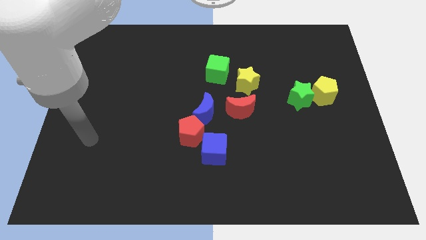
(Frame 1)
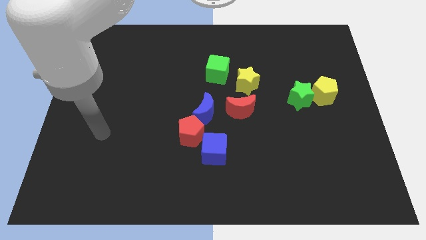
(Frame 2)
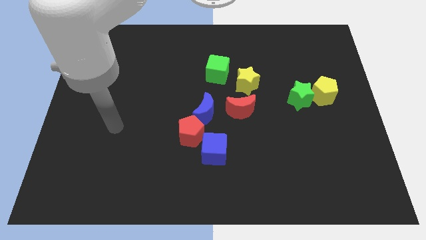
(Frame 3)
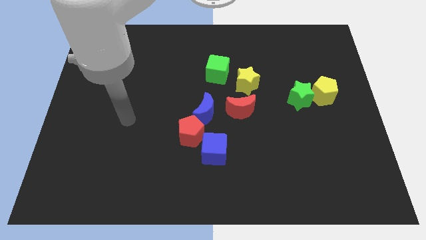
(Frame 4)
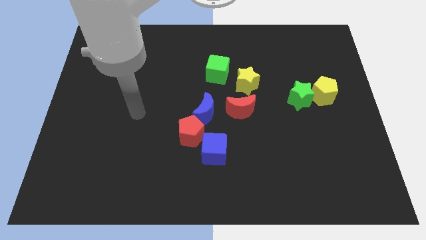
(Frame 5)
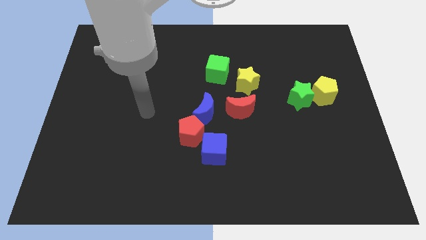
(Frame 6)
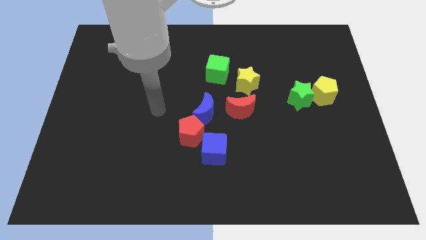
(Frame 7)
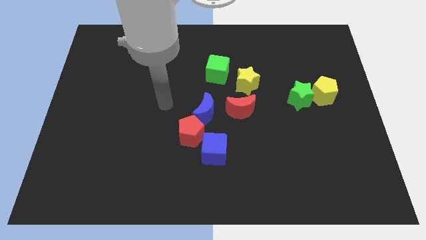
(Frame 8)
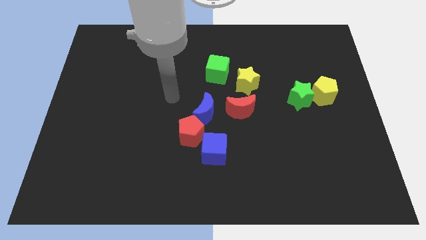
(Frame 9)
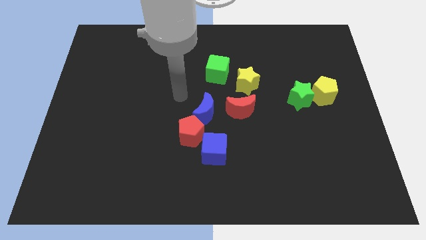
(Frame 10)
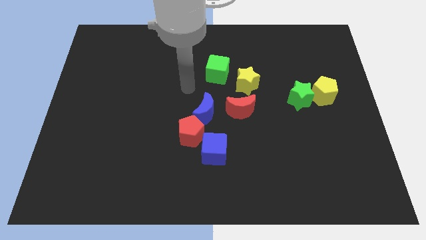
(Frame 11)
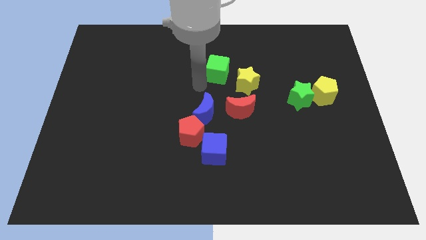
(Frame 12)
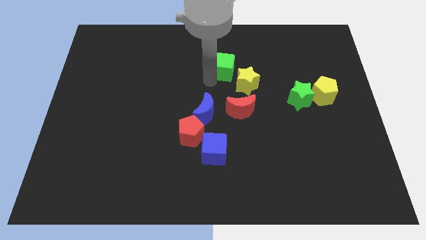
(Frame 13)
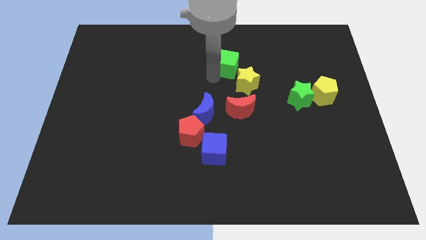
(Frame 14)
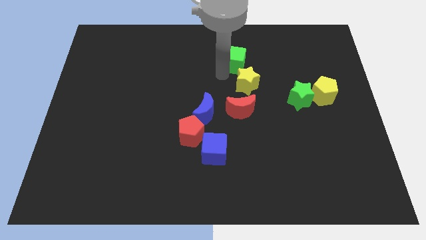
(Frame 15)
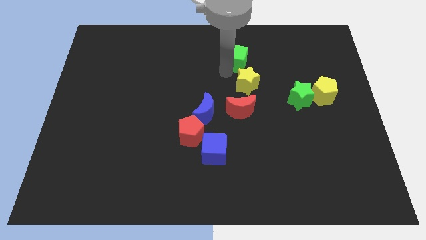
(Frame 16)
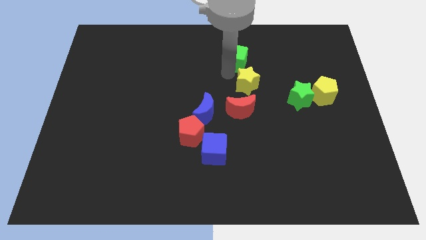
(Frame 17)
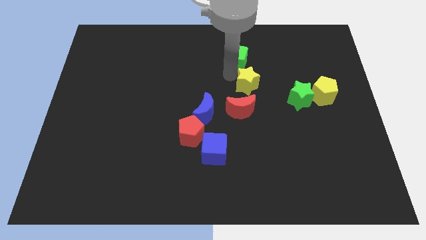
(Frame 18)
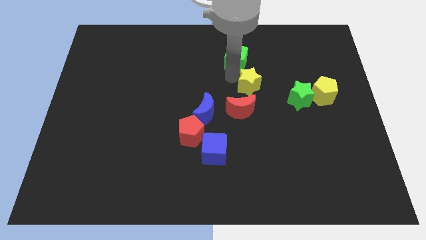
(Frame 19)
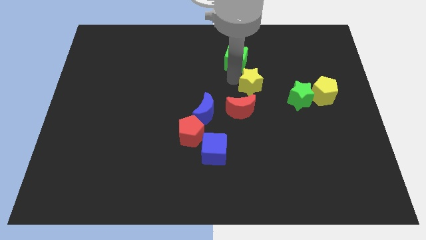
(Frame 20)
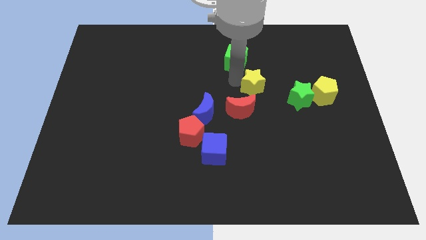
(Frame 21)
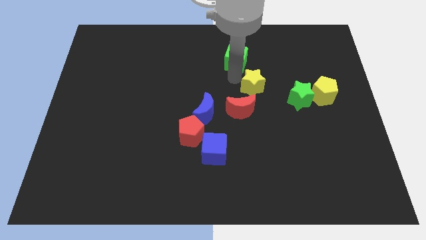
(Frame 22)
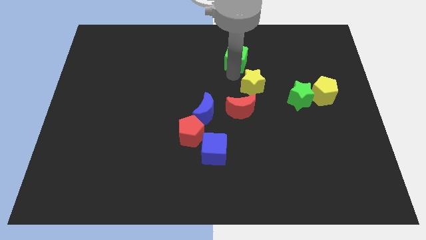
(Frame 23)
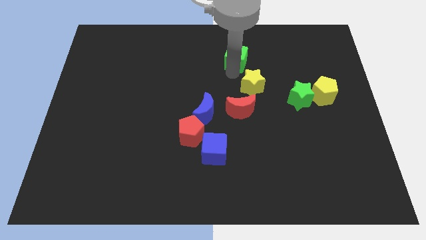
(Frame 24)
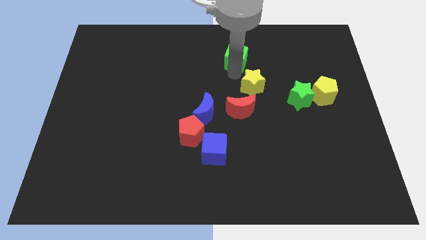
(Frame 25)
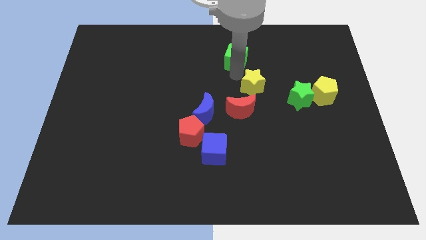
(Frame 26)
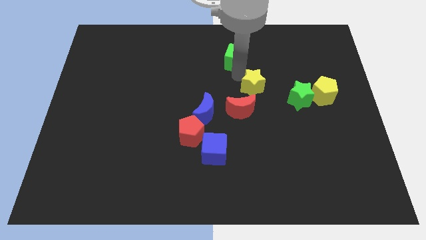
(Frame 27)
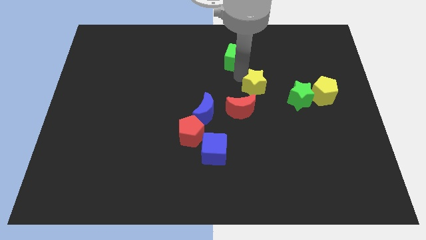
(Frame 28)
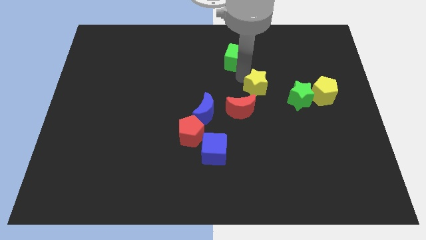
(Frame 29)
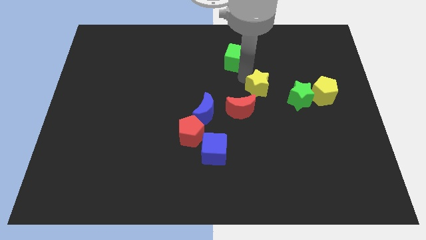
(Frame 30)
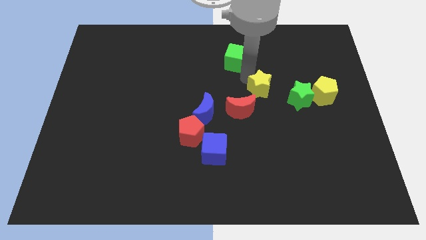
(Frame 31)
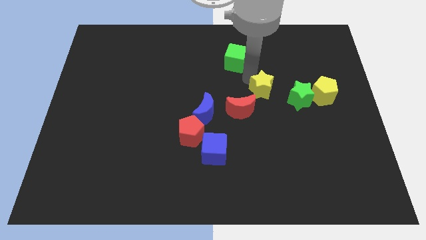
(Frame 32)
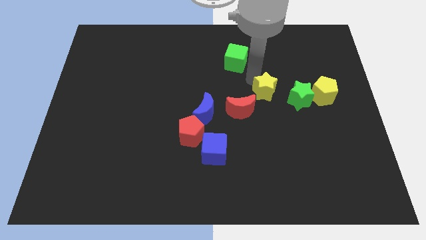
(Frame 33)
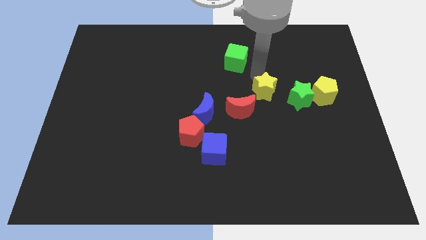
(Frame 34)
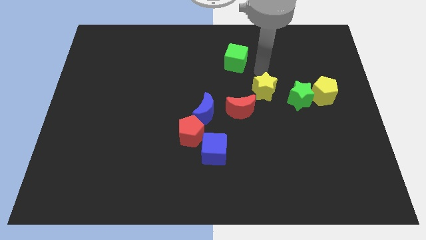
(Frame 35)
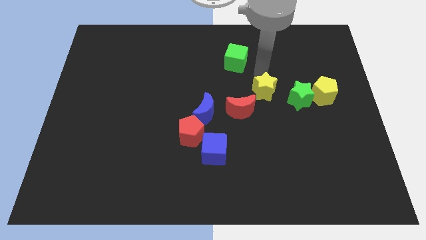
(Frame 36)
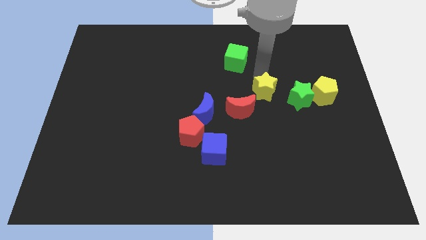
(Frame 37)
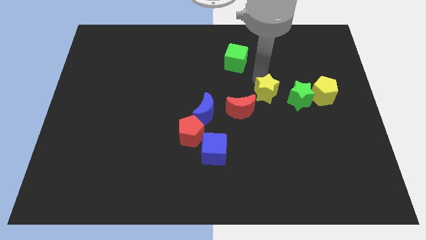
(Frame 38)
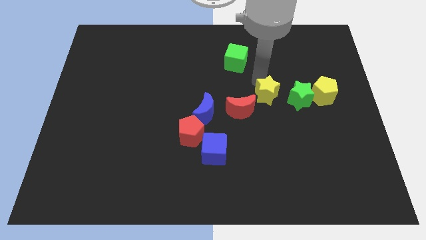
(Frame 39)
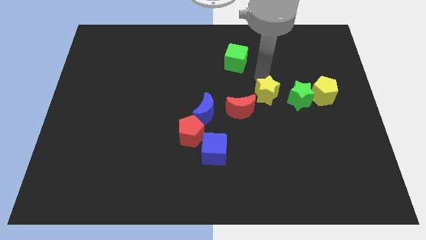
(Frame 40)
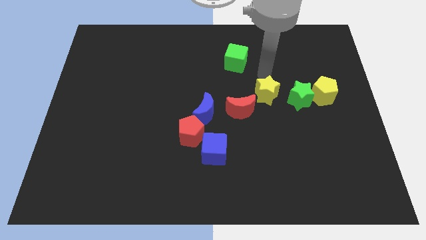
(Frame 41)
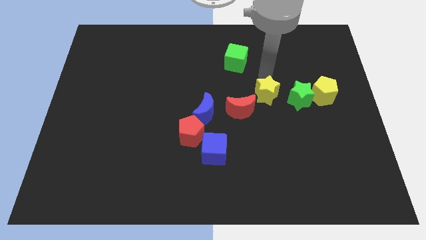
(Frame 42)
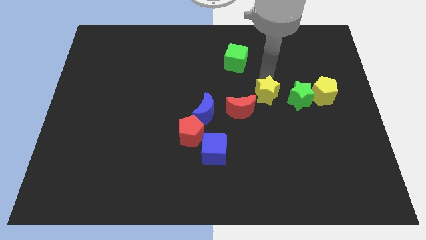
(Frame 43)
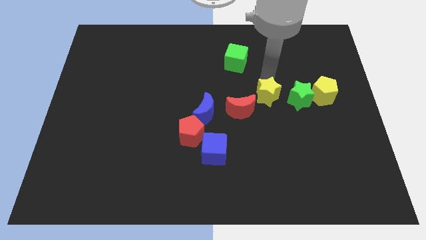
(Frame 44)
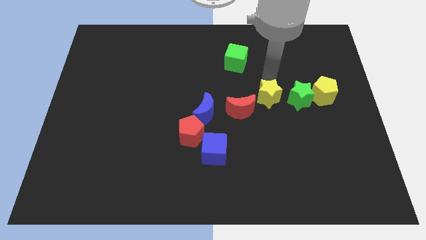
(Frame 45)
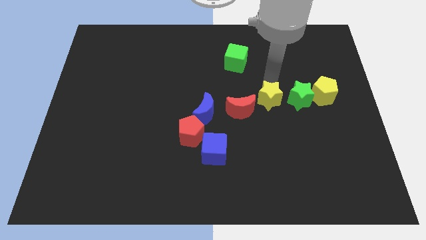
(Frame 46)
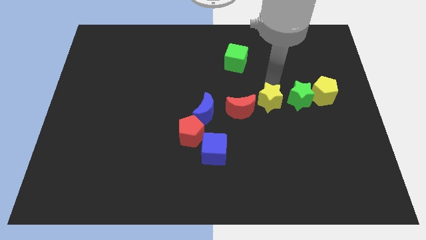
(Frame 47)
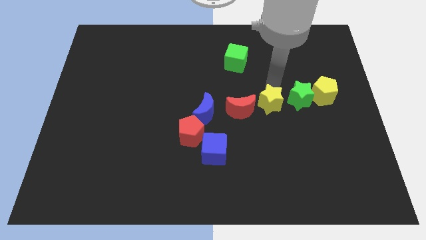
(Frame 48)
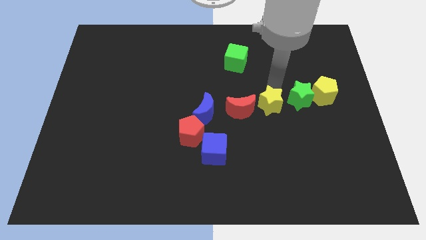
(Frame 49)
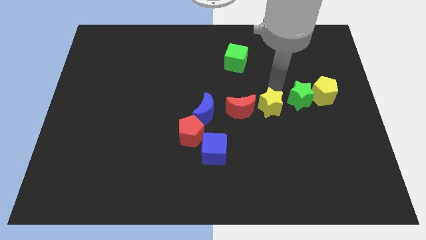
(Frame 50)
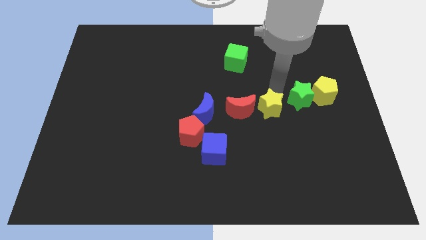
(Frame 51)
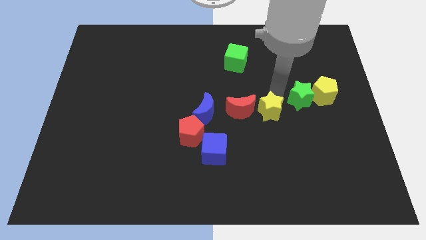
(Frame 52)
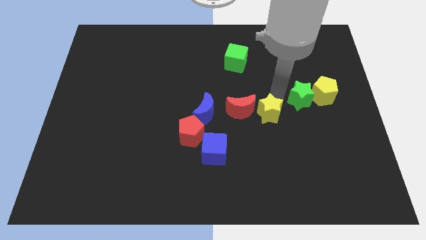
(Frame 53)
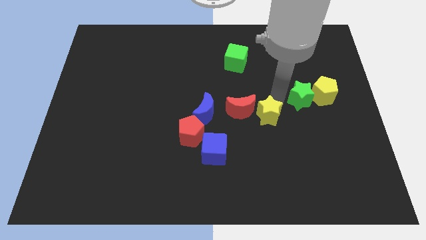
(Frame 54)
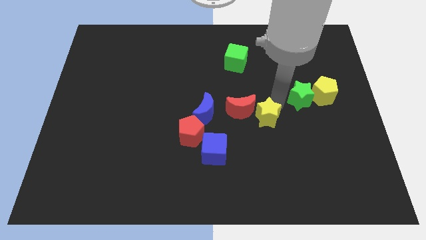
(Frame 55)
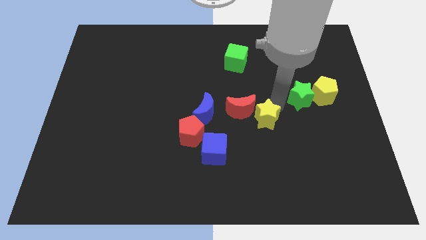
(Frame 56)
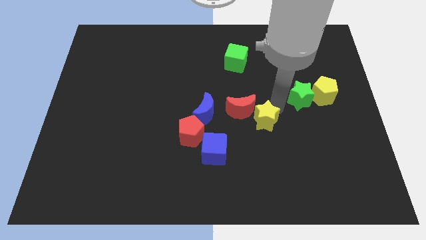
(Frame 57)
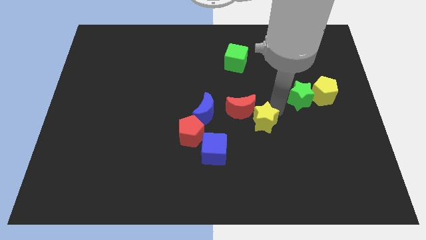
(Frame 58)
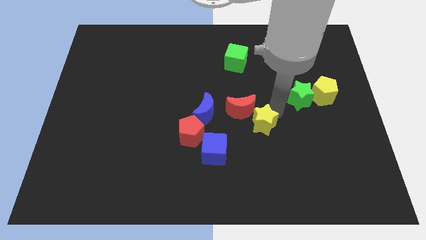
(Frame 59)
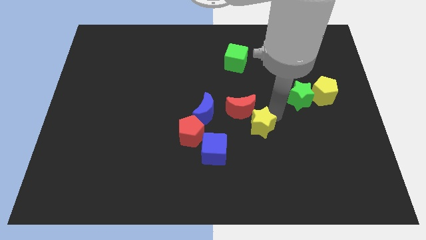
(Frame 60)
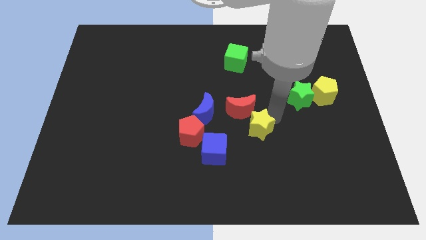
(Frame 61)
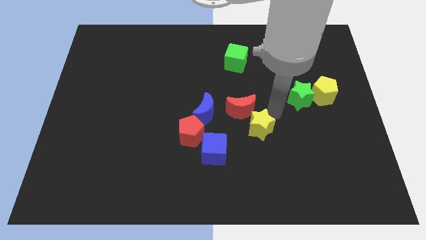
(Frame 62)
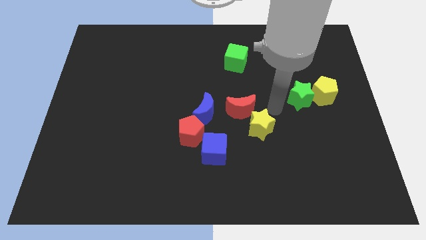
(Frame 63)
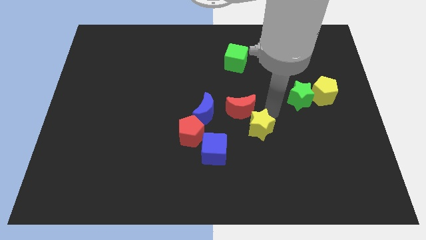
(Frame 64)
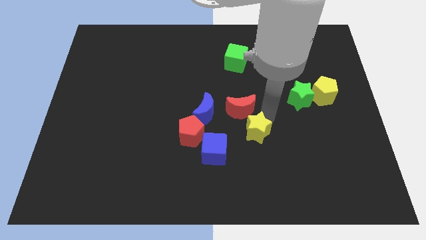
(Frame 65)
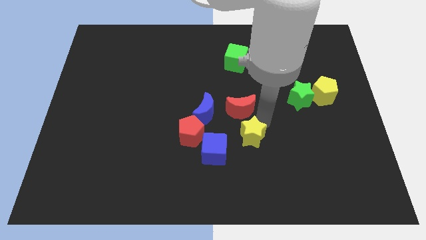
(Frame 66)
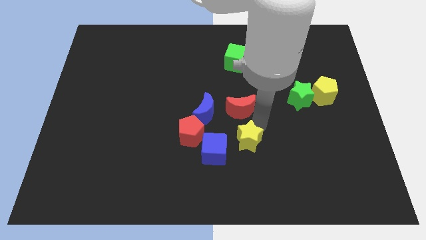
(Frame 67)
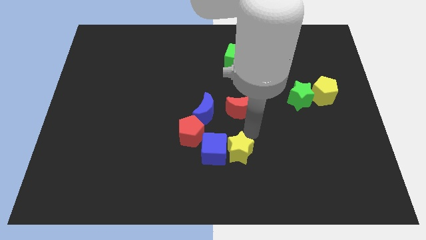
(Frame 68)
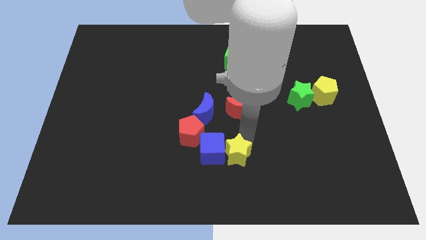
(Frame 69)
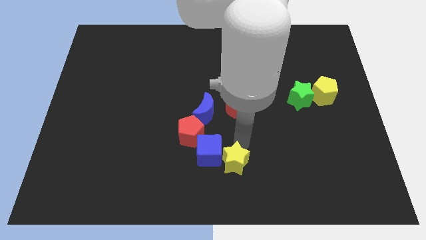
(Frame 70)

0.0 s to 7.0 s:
slide the yellow star to the bottom side

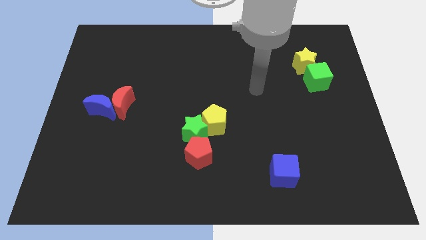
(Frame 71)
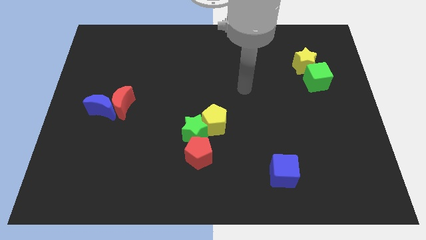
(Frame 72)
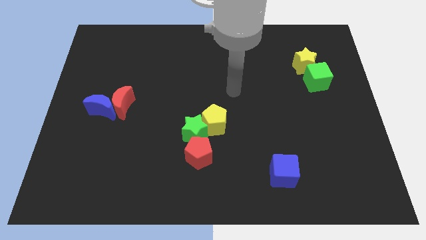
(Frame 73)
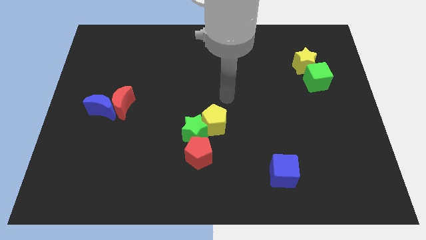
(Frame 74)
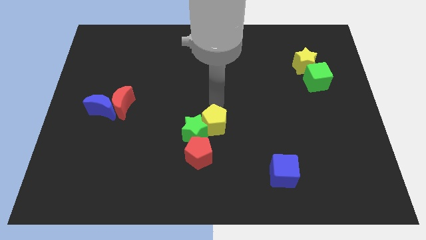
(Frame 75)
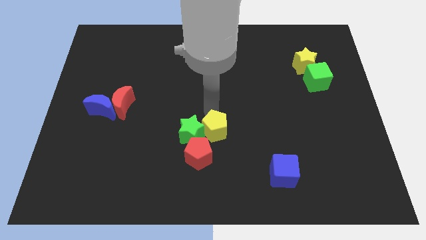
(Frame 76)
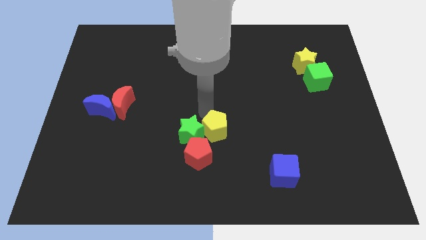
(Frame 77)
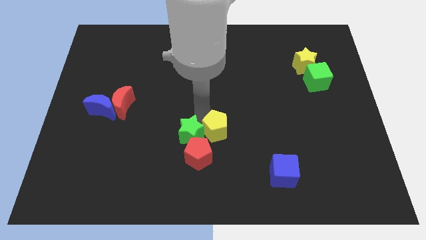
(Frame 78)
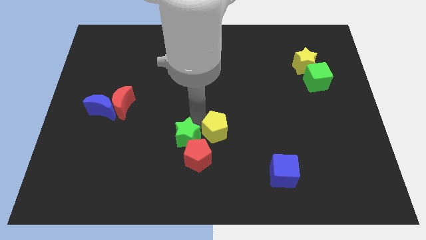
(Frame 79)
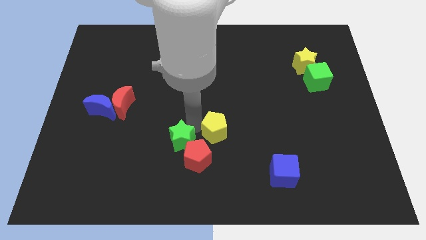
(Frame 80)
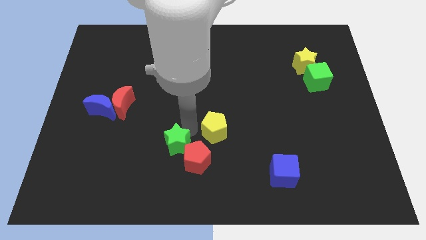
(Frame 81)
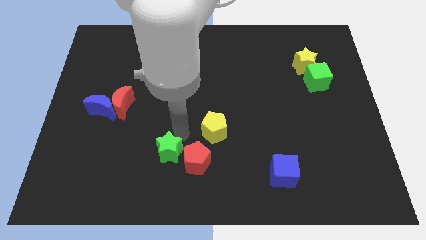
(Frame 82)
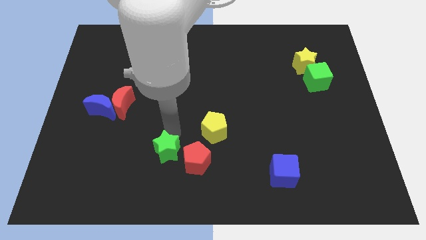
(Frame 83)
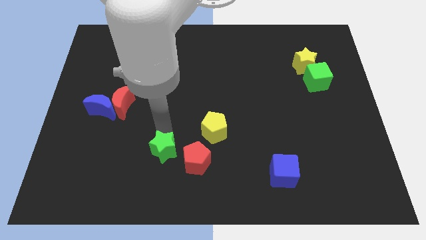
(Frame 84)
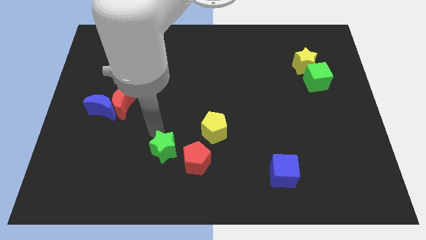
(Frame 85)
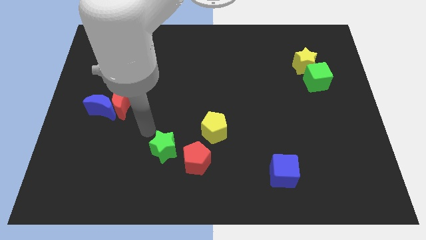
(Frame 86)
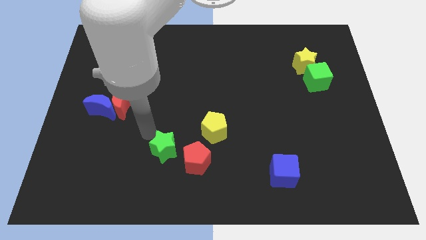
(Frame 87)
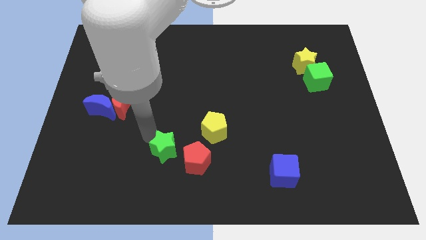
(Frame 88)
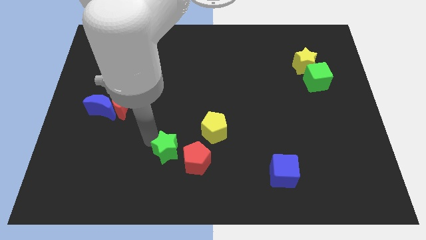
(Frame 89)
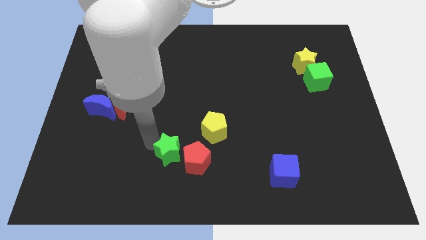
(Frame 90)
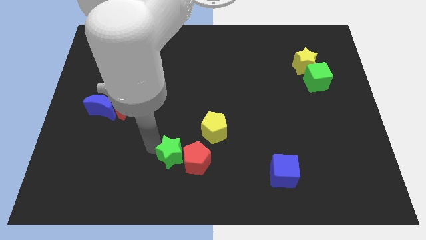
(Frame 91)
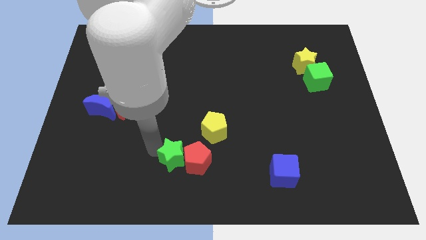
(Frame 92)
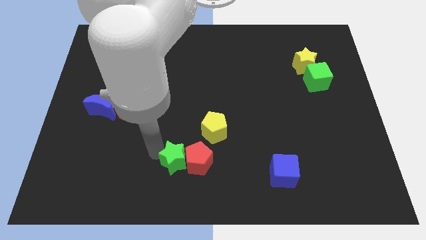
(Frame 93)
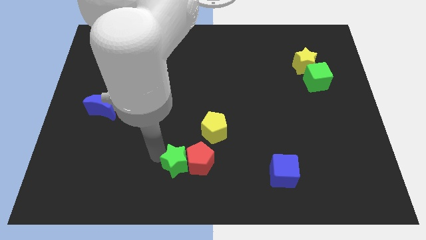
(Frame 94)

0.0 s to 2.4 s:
move the green star to the bottom side
